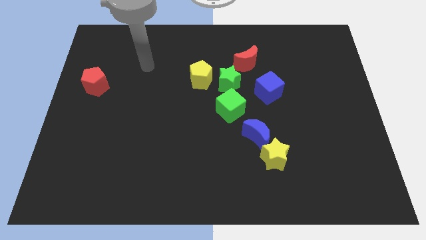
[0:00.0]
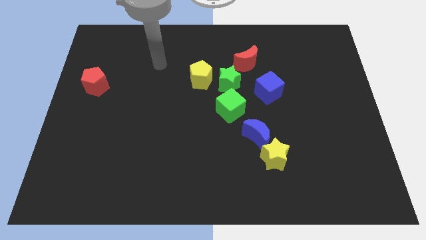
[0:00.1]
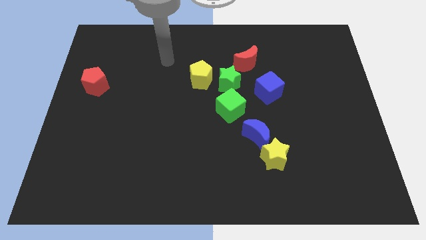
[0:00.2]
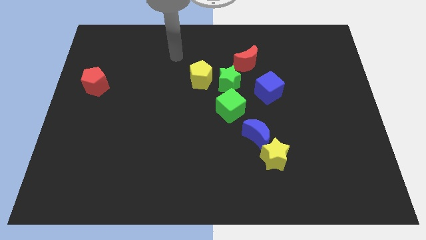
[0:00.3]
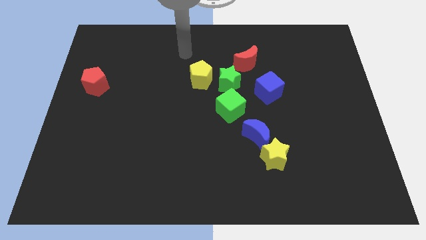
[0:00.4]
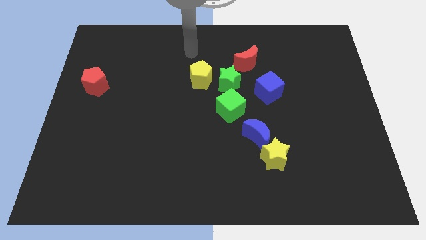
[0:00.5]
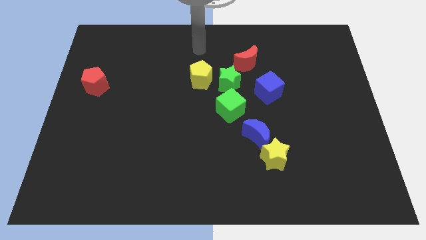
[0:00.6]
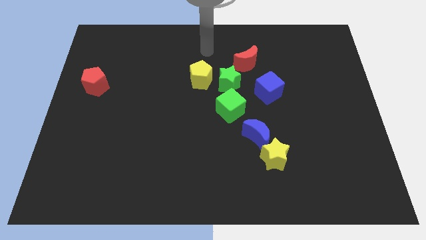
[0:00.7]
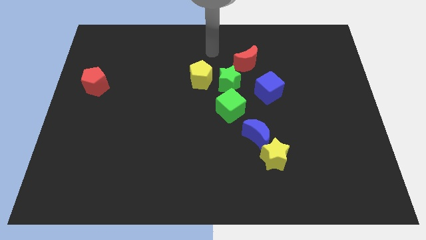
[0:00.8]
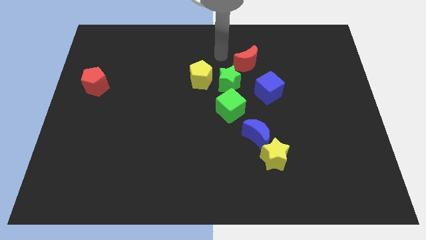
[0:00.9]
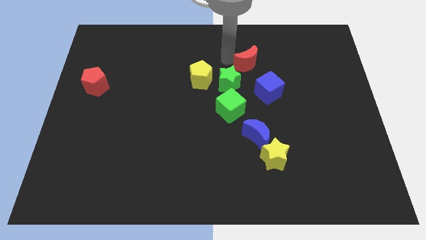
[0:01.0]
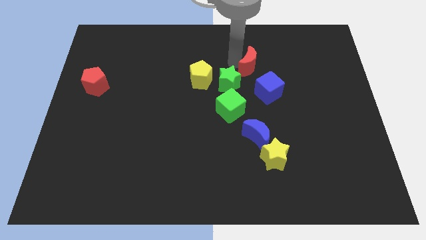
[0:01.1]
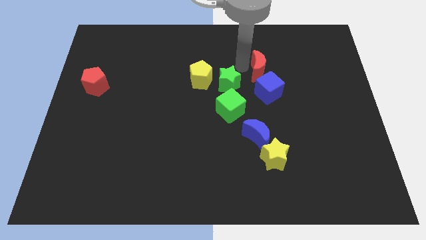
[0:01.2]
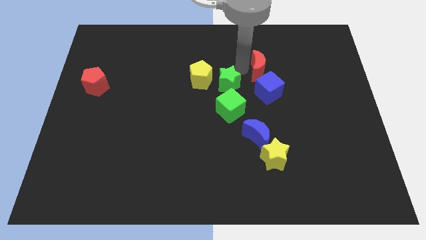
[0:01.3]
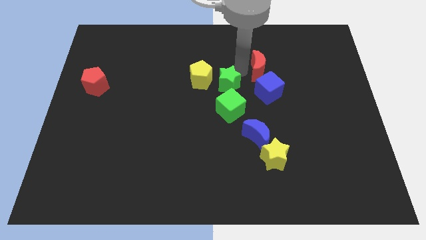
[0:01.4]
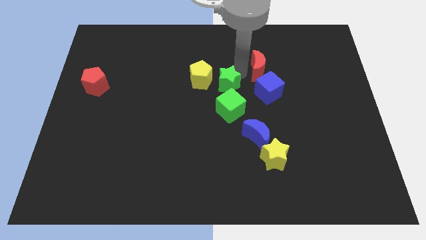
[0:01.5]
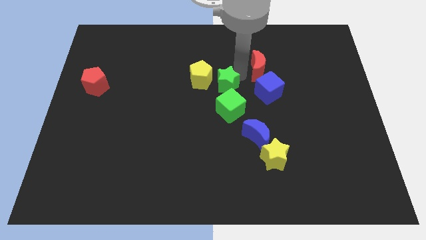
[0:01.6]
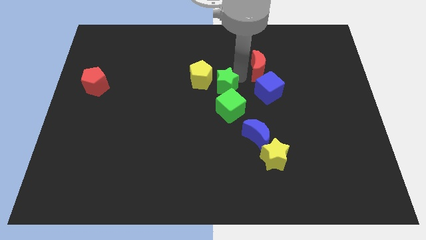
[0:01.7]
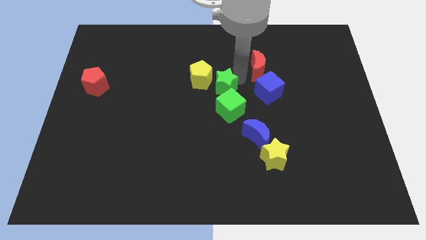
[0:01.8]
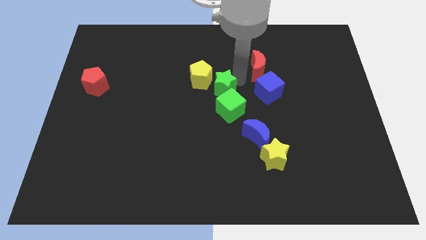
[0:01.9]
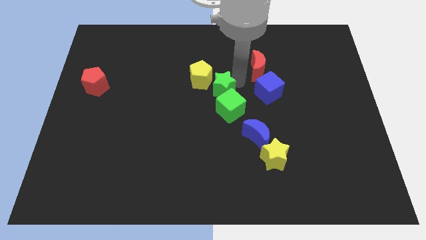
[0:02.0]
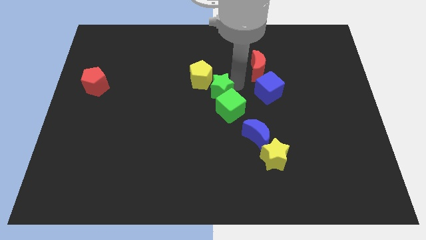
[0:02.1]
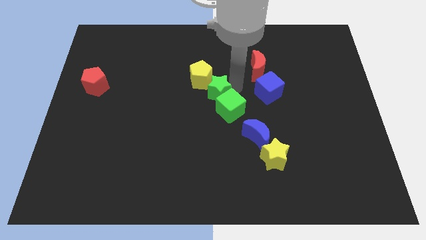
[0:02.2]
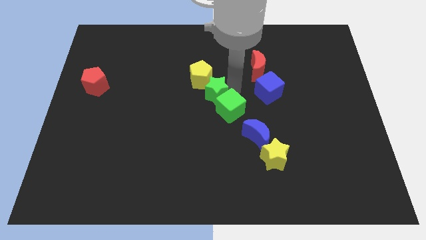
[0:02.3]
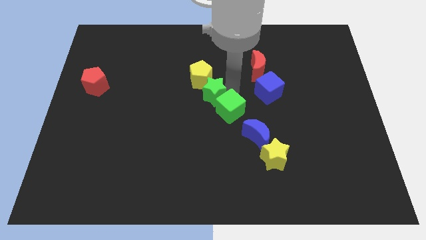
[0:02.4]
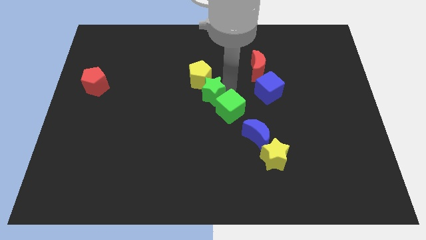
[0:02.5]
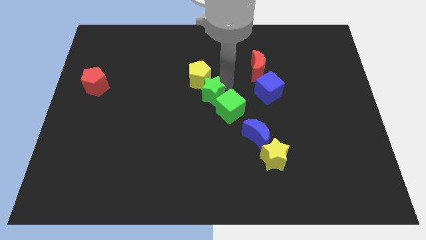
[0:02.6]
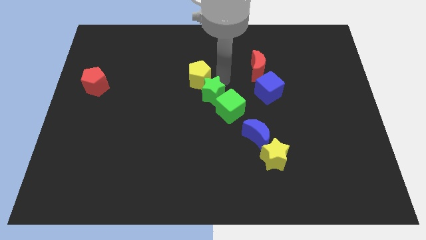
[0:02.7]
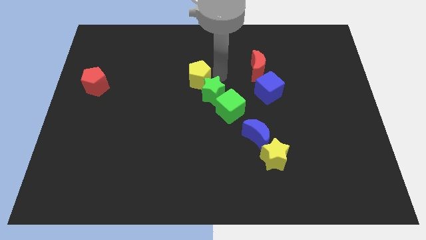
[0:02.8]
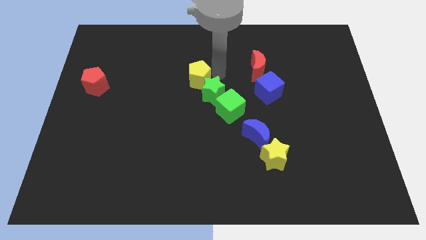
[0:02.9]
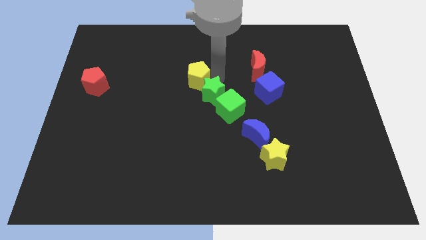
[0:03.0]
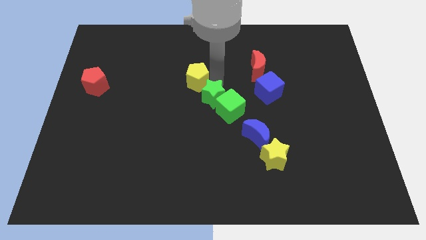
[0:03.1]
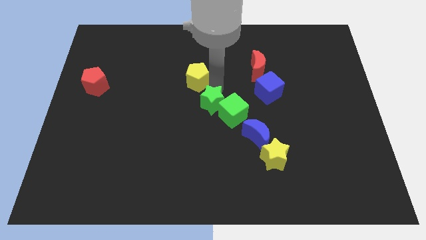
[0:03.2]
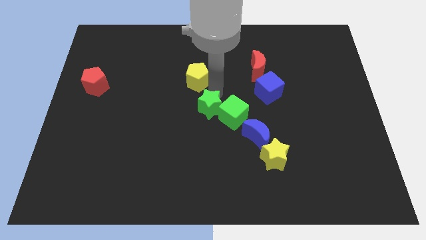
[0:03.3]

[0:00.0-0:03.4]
slightly move the green star downwards

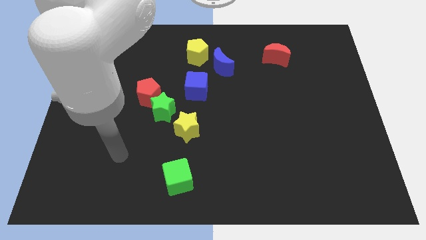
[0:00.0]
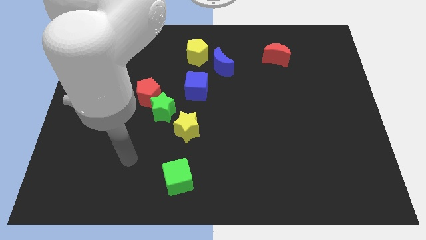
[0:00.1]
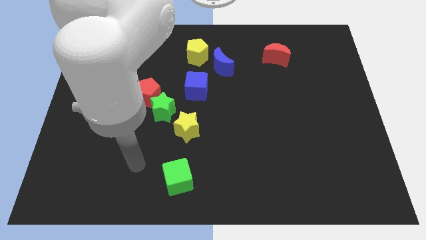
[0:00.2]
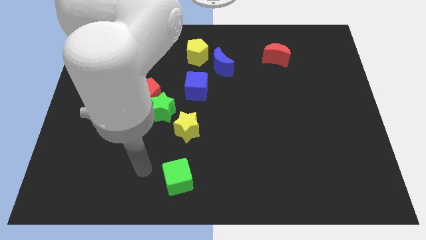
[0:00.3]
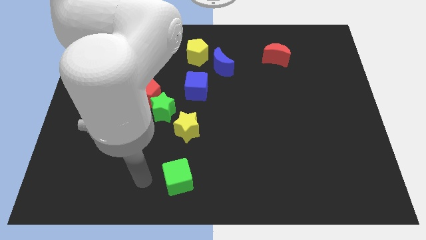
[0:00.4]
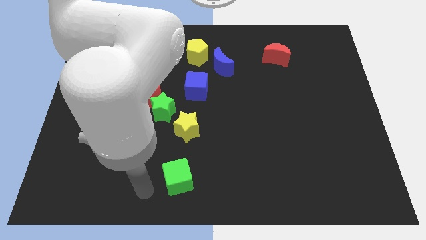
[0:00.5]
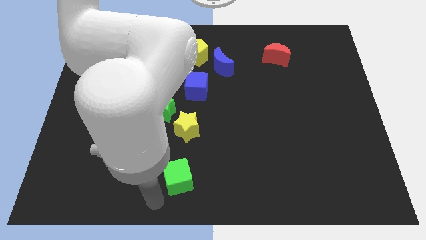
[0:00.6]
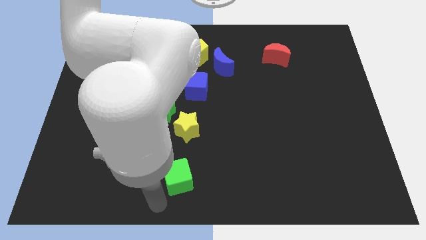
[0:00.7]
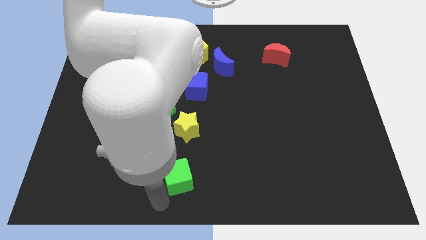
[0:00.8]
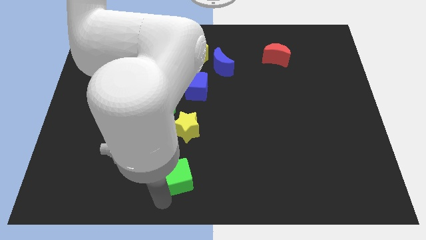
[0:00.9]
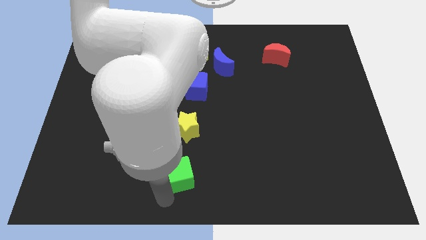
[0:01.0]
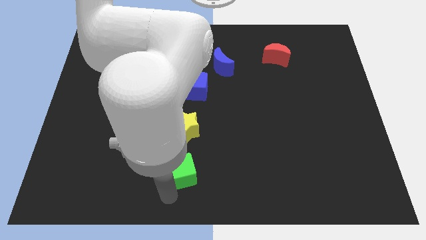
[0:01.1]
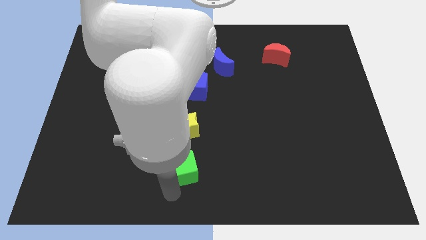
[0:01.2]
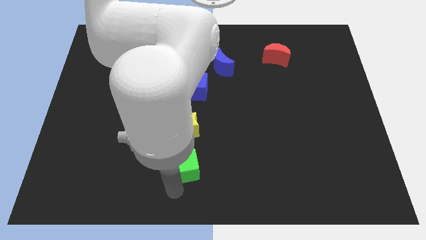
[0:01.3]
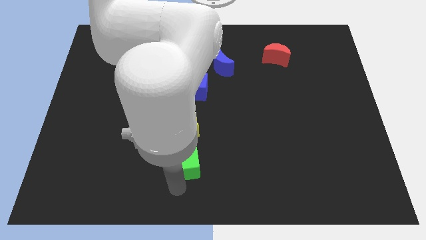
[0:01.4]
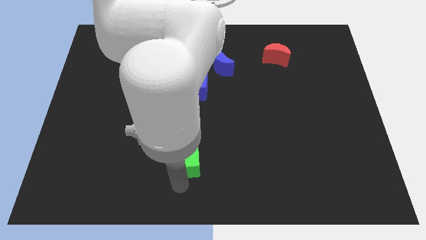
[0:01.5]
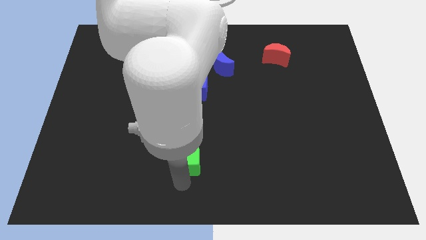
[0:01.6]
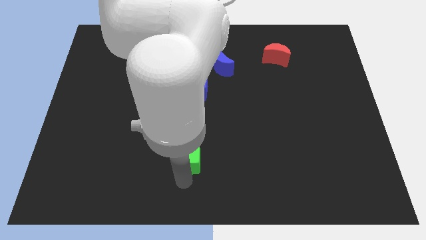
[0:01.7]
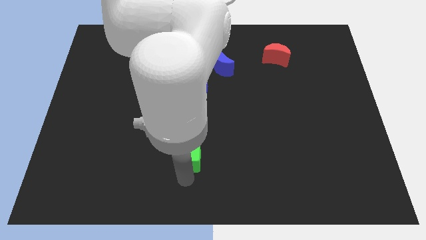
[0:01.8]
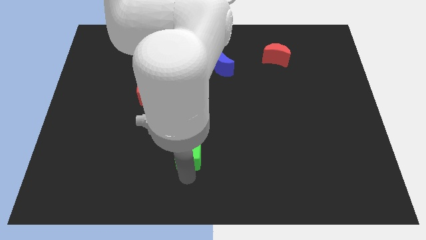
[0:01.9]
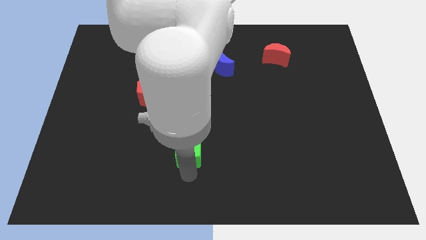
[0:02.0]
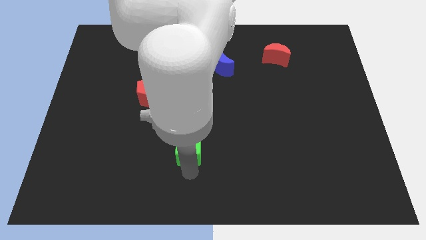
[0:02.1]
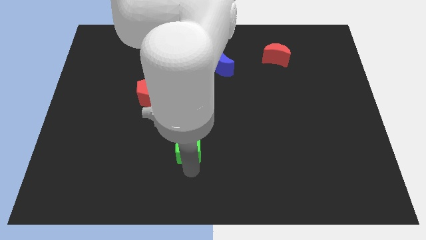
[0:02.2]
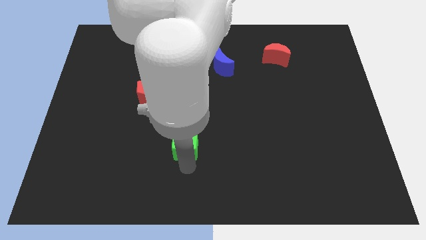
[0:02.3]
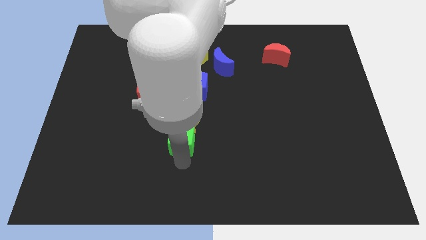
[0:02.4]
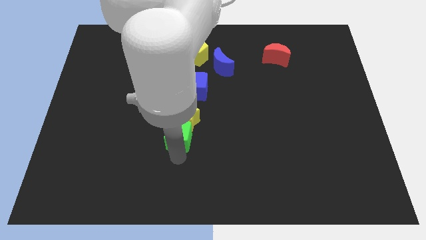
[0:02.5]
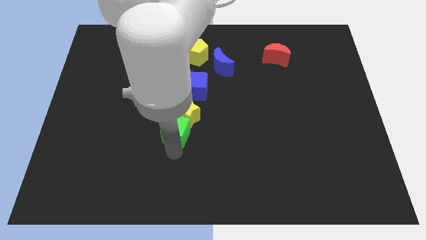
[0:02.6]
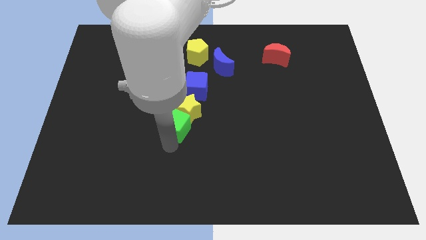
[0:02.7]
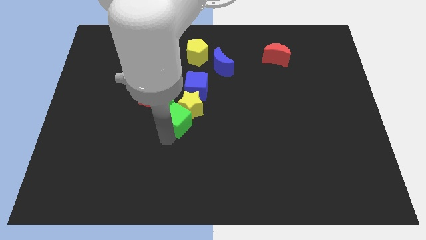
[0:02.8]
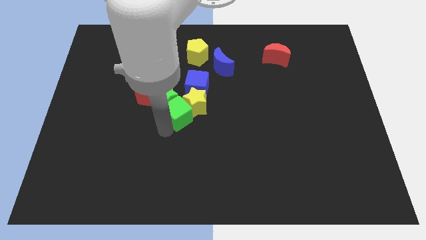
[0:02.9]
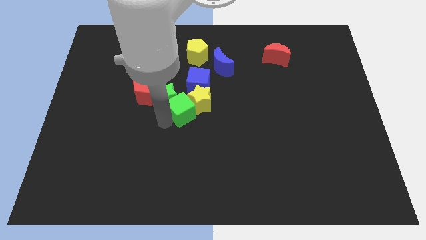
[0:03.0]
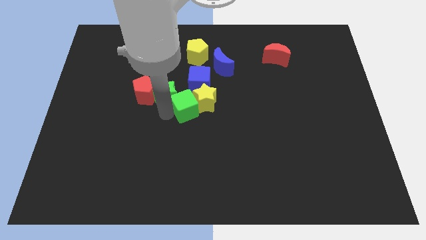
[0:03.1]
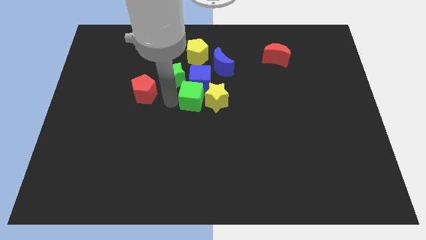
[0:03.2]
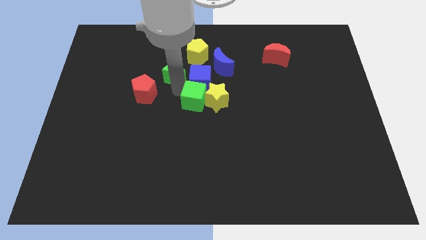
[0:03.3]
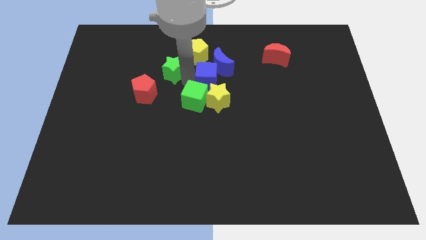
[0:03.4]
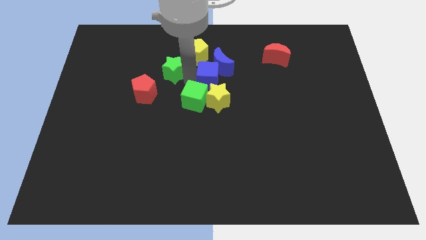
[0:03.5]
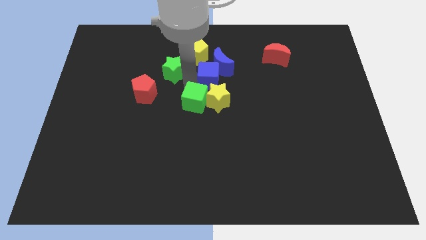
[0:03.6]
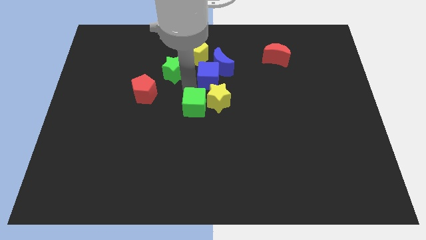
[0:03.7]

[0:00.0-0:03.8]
push the green cube a bit diagonally upwards and to the right

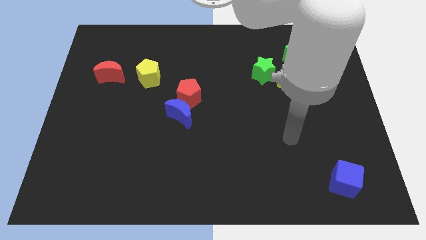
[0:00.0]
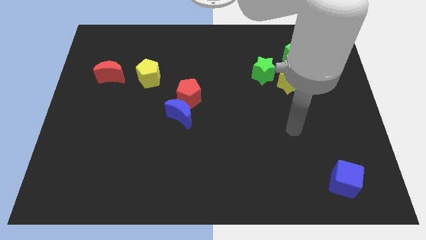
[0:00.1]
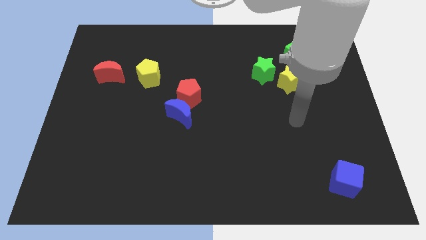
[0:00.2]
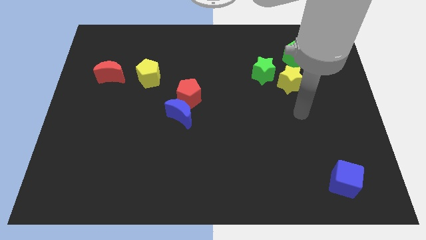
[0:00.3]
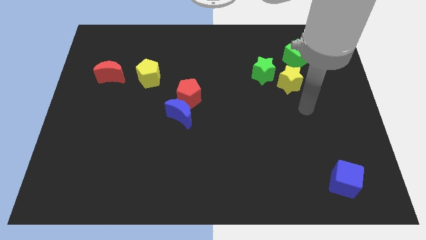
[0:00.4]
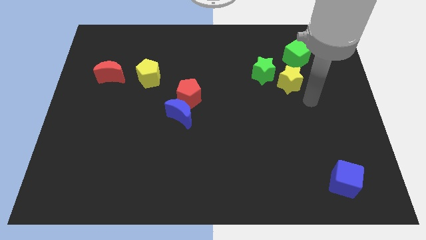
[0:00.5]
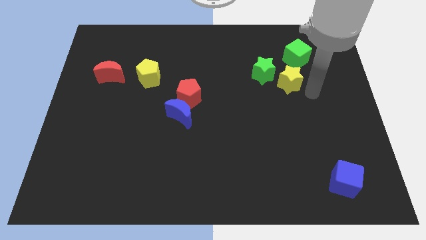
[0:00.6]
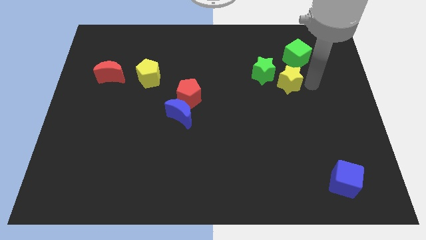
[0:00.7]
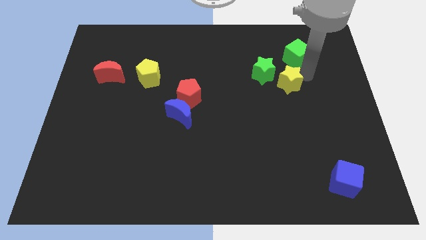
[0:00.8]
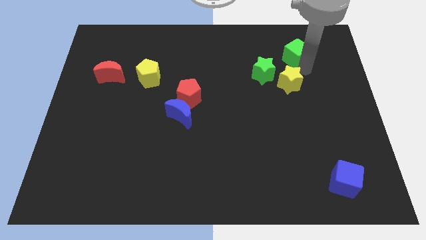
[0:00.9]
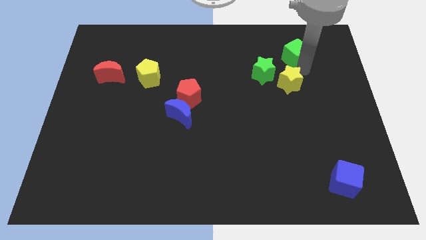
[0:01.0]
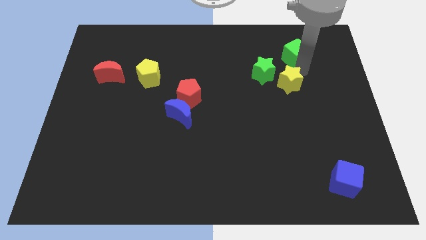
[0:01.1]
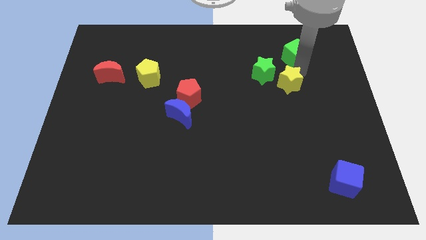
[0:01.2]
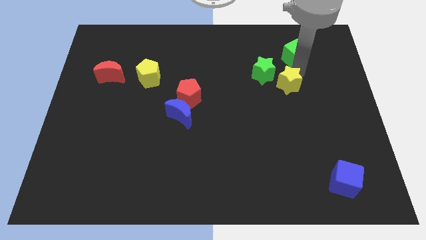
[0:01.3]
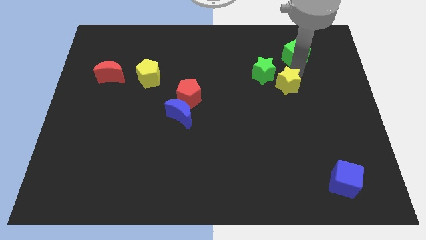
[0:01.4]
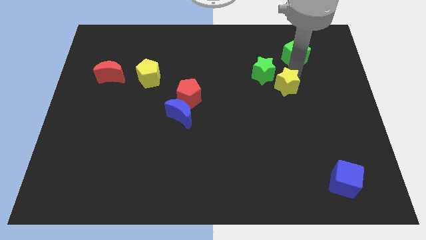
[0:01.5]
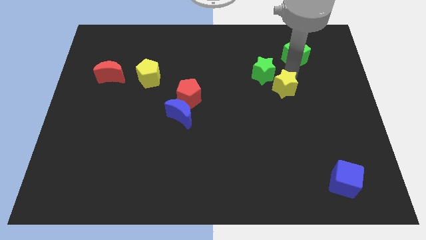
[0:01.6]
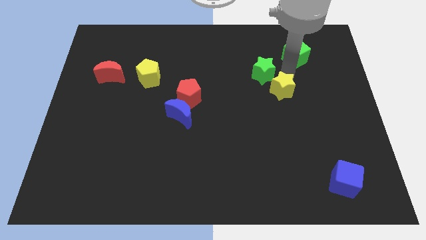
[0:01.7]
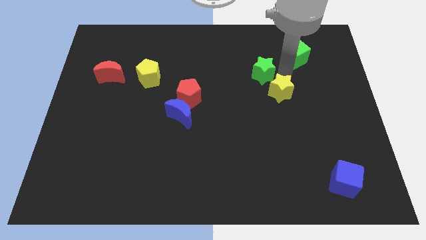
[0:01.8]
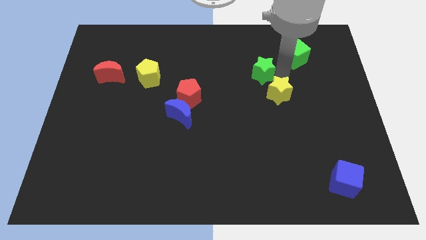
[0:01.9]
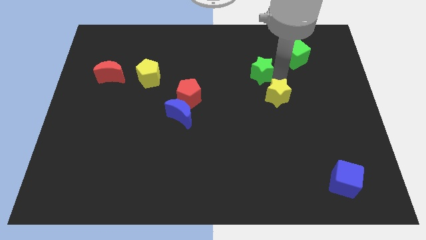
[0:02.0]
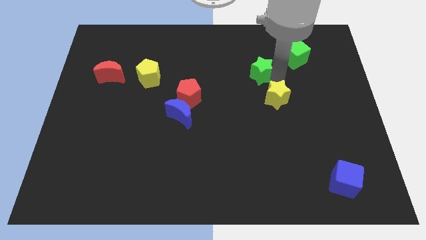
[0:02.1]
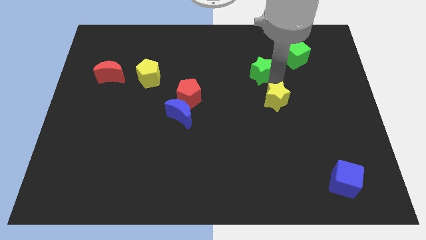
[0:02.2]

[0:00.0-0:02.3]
slide the yellow star a little bit diagonally down and to the left
